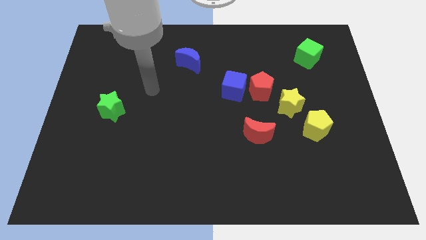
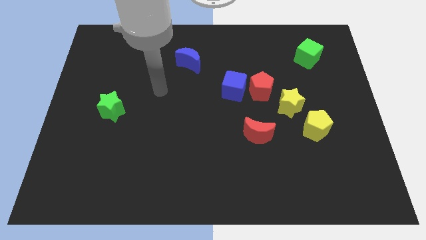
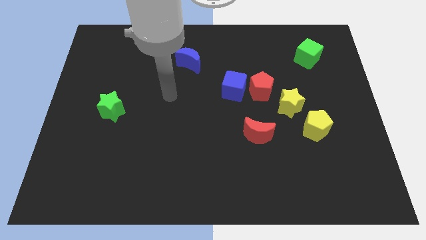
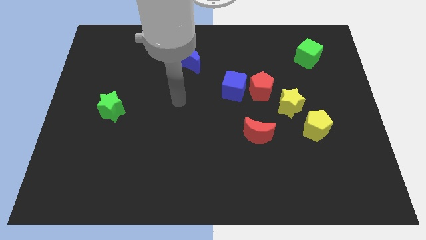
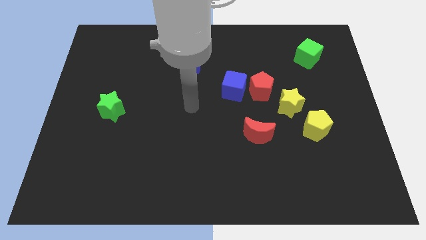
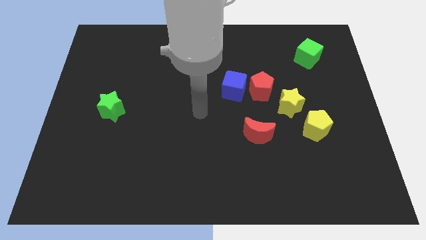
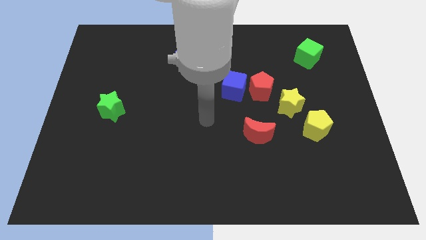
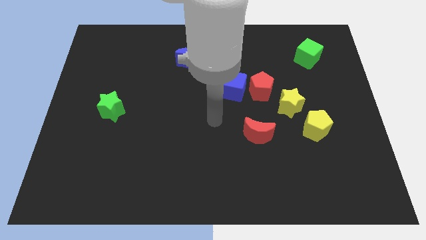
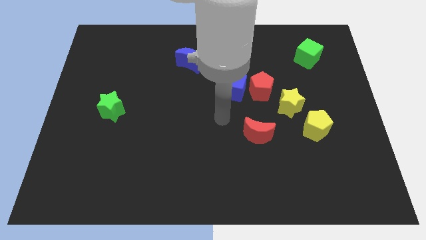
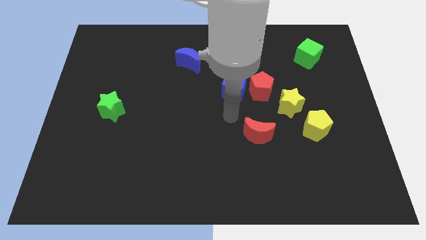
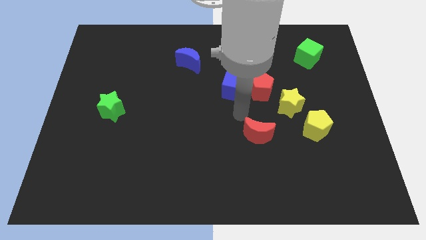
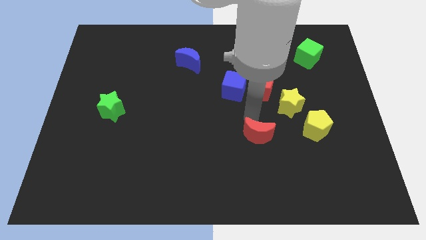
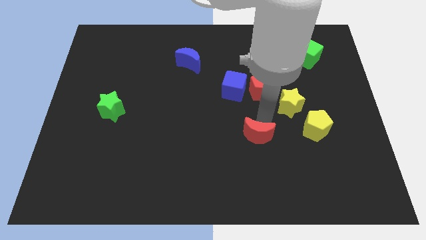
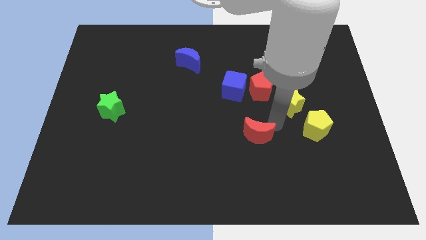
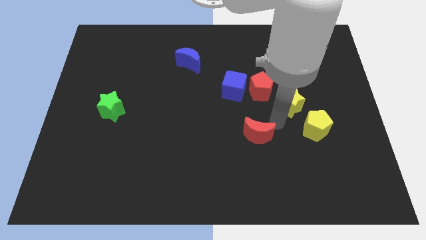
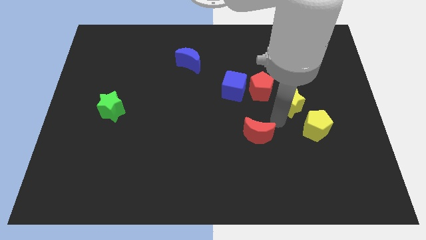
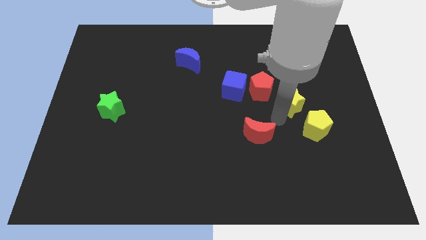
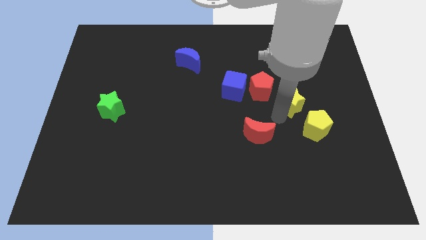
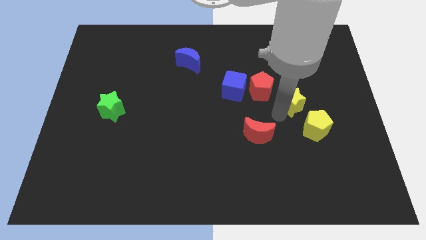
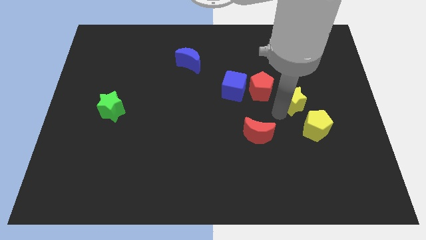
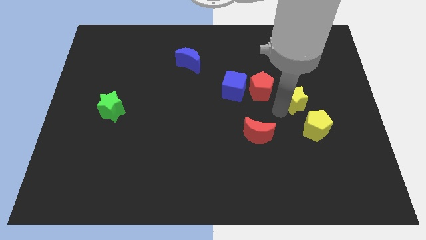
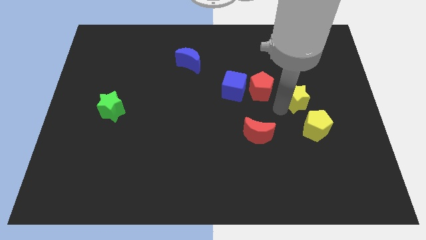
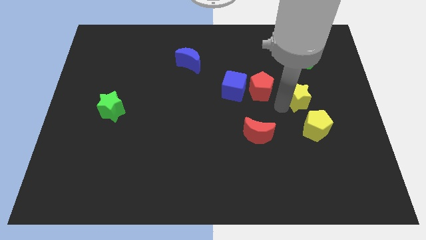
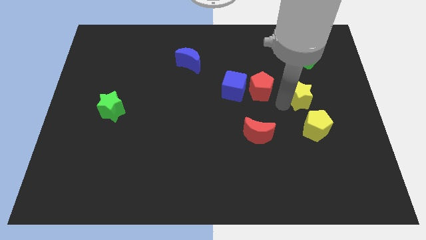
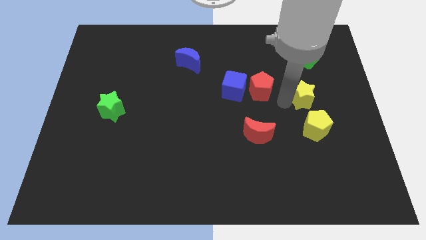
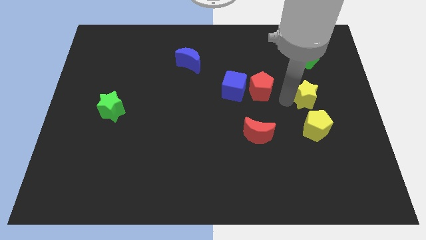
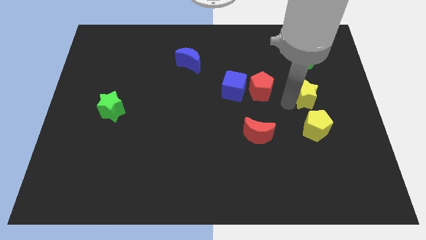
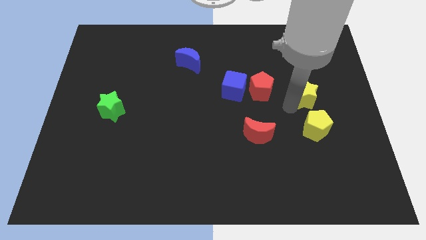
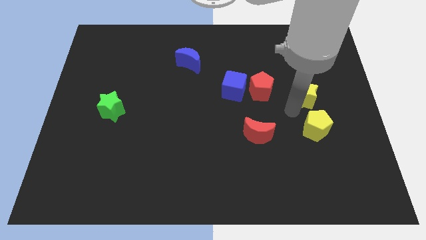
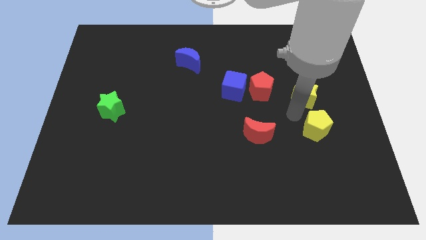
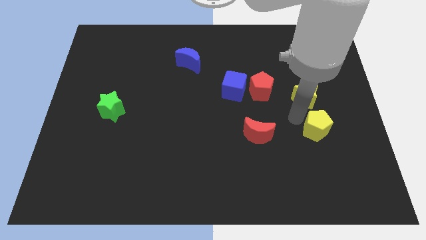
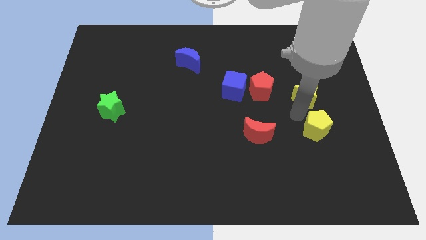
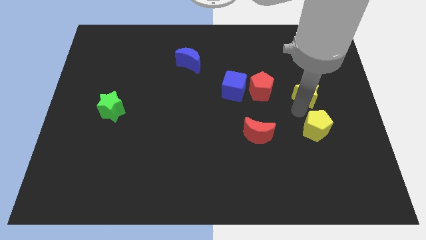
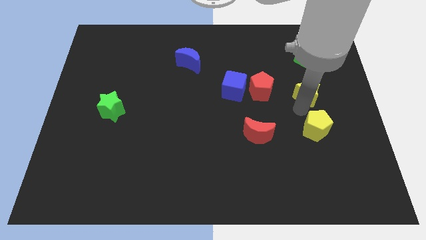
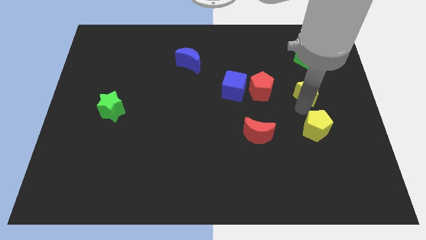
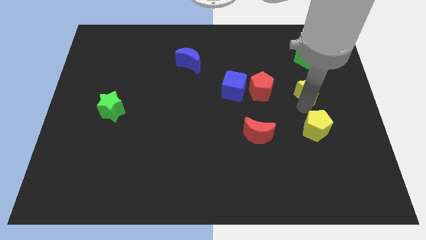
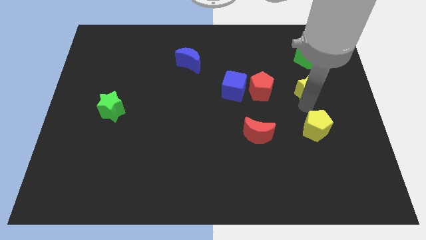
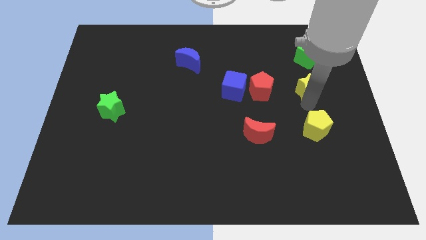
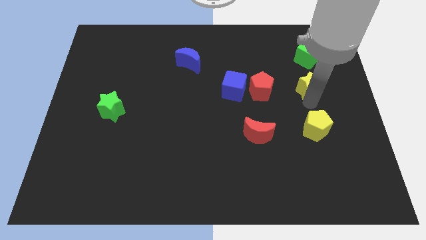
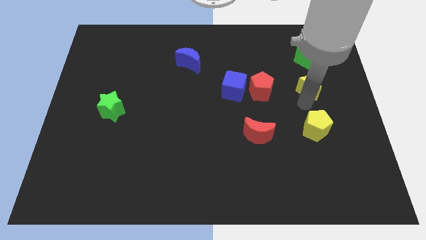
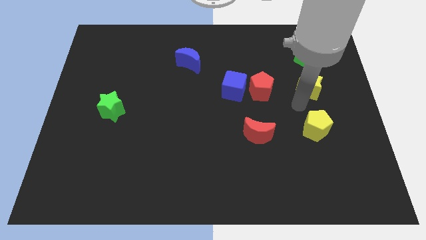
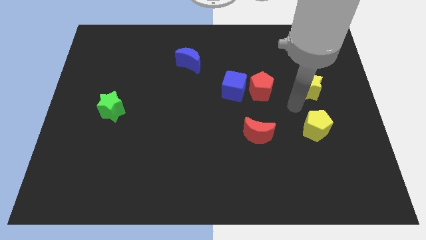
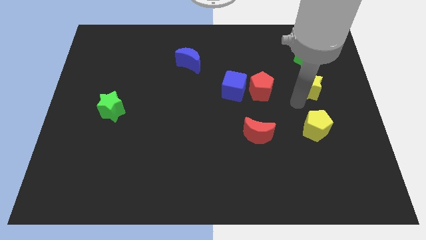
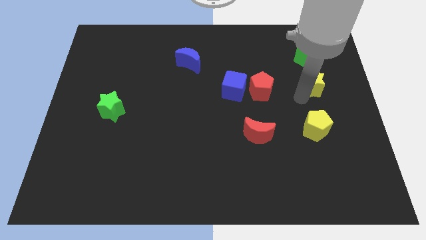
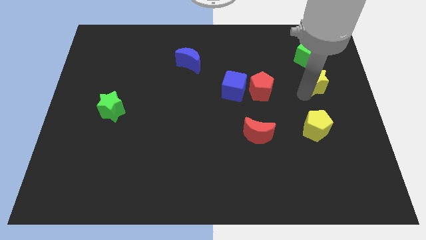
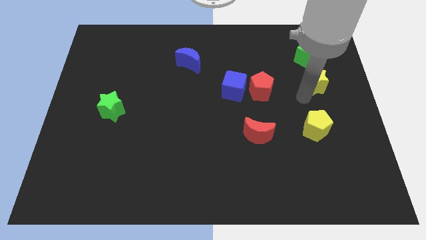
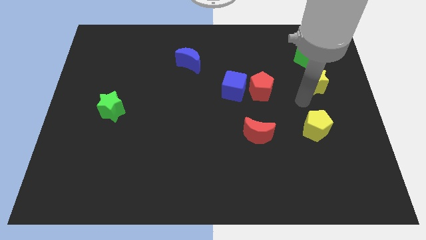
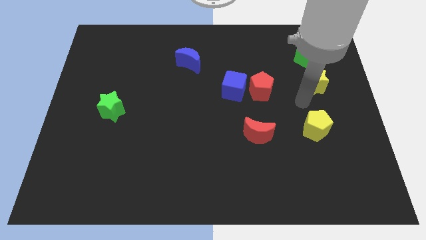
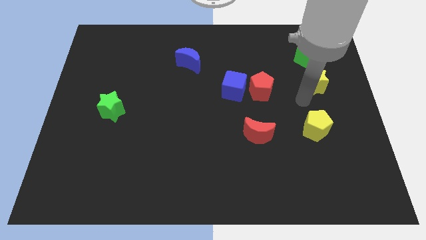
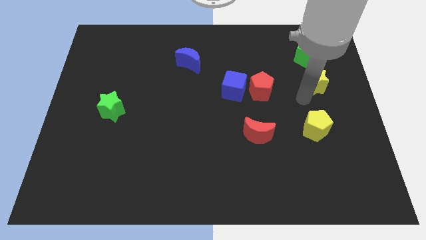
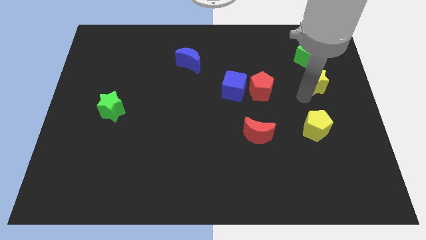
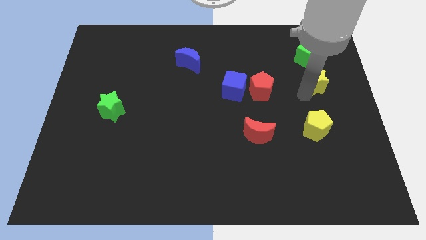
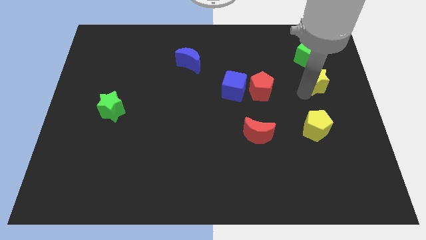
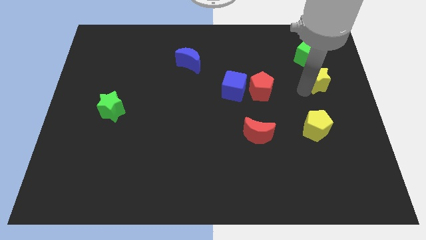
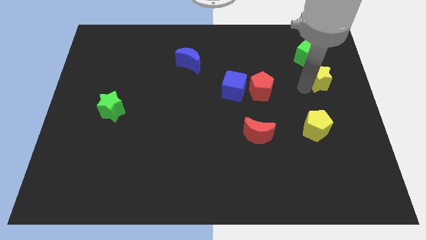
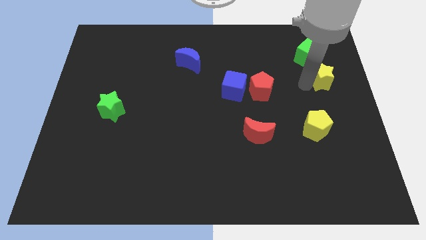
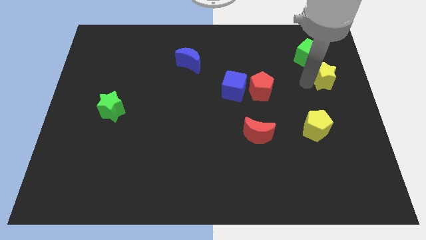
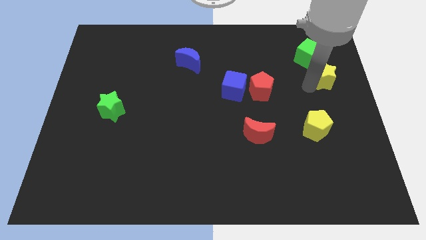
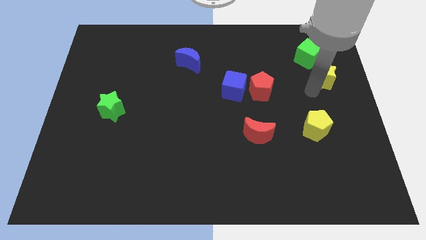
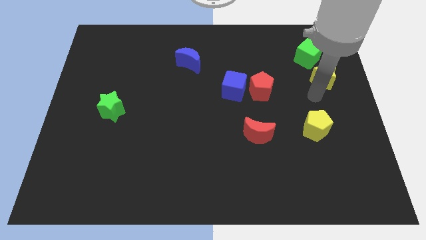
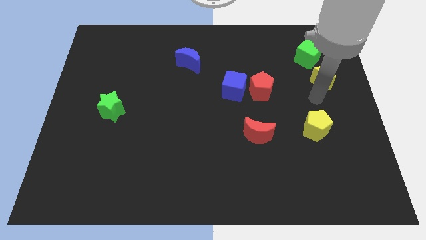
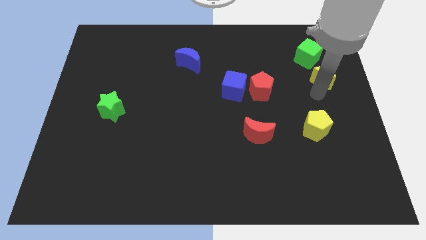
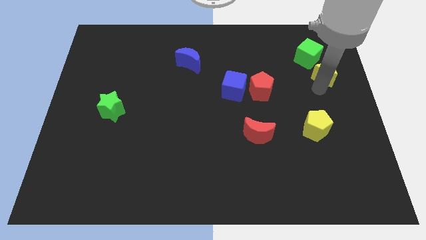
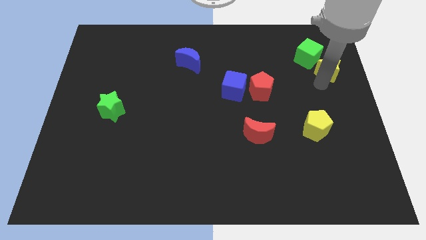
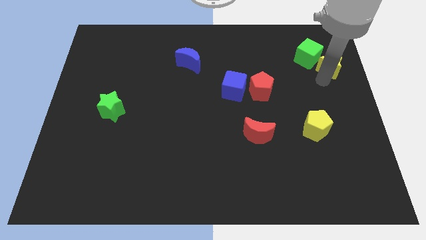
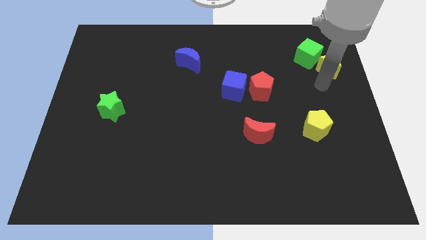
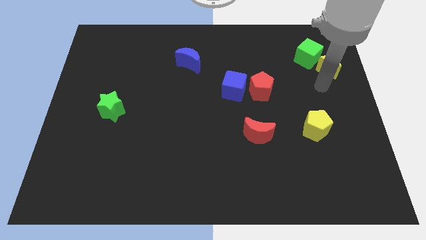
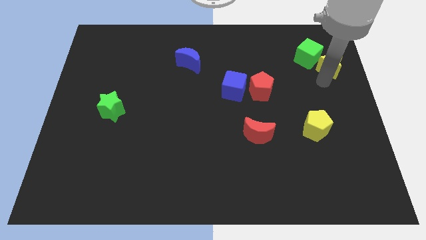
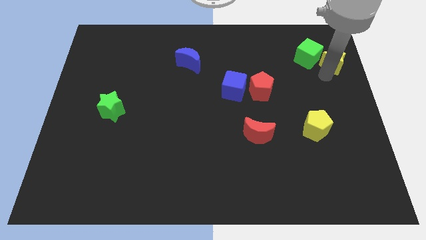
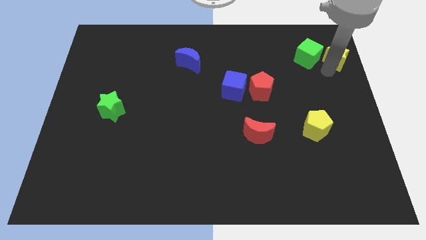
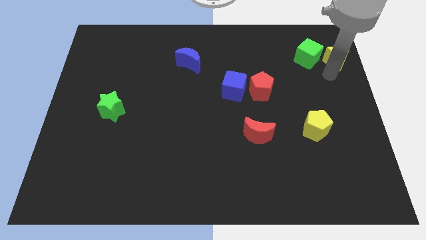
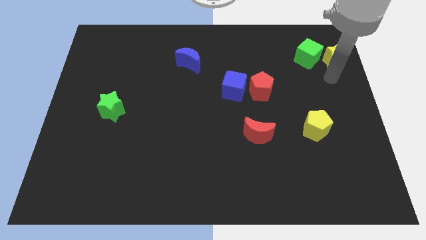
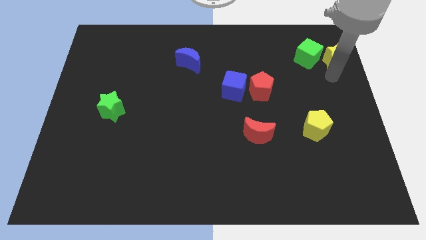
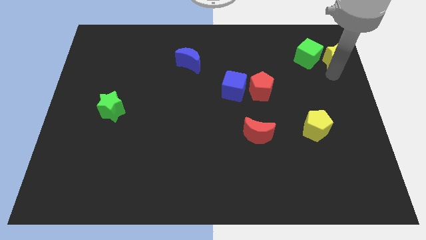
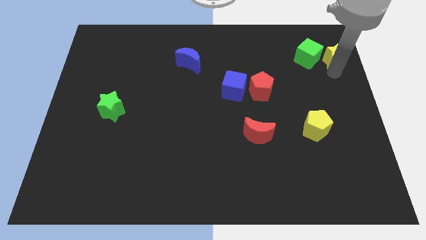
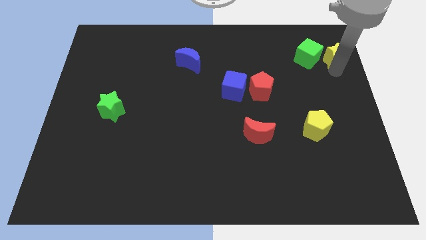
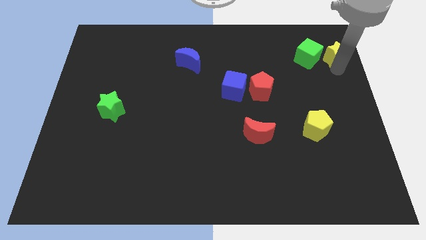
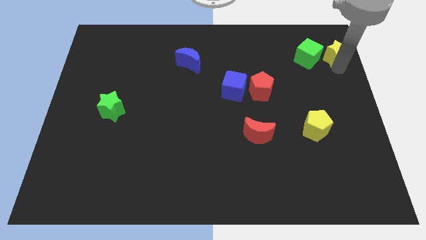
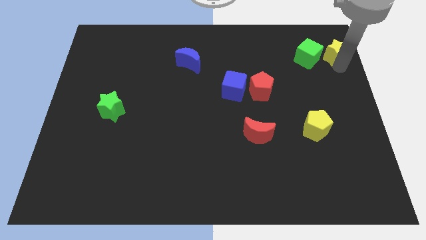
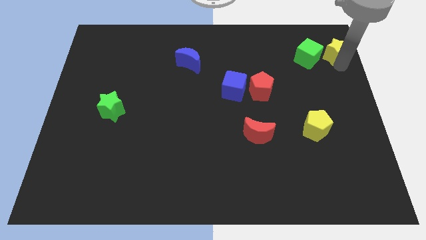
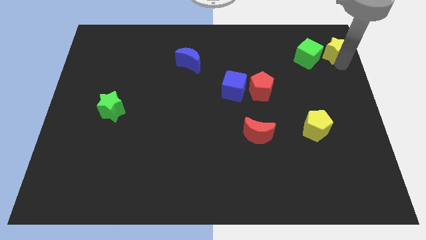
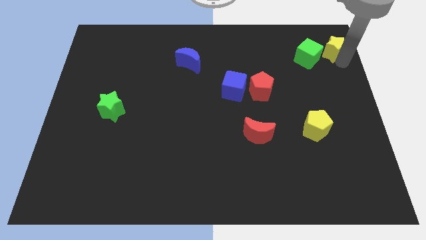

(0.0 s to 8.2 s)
move the yellow star to the top right
